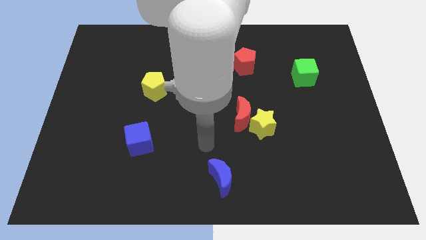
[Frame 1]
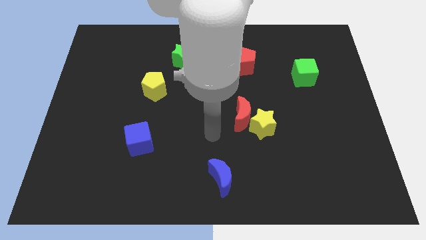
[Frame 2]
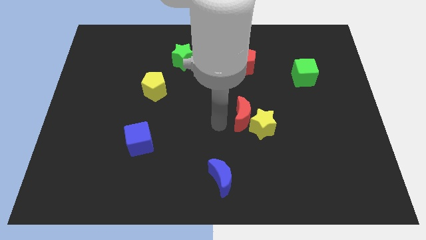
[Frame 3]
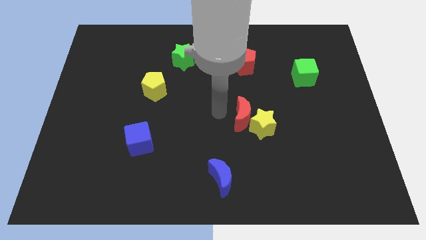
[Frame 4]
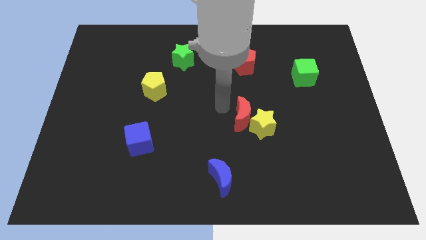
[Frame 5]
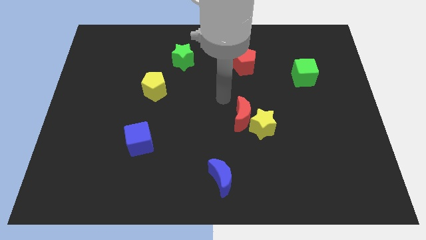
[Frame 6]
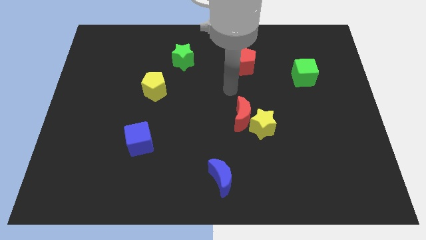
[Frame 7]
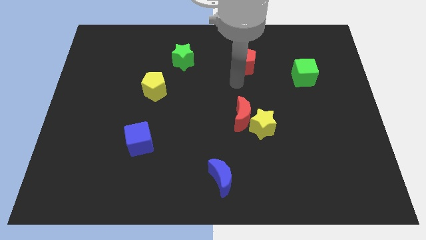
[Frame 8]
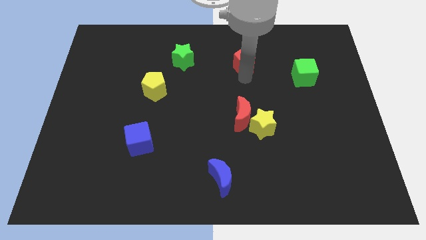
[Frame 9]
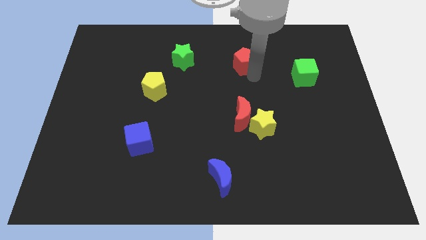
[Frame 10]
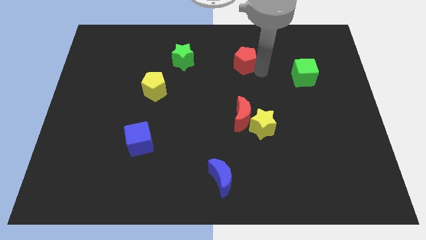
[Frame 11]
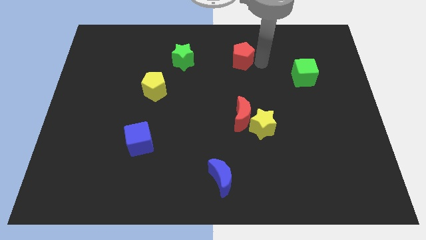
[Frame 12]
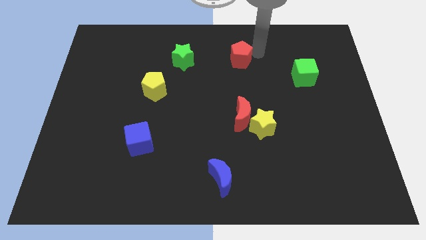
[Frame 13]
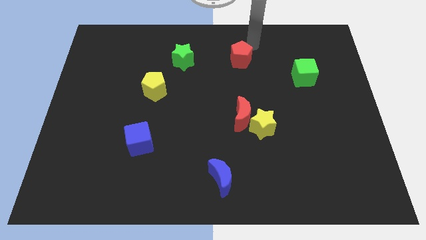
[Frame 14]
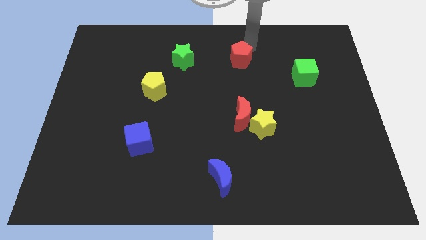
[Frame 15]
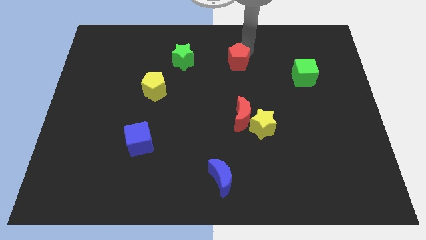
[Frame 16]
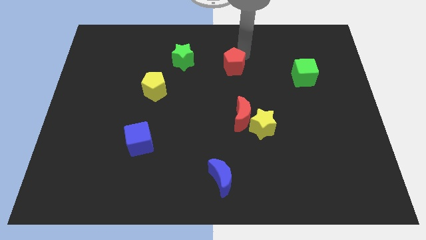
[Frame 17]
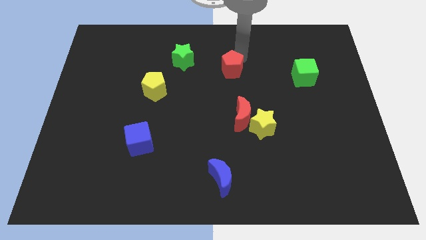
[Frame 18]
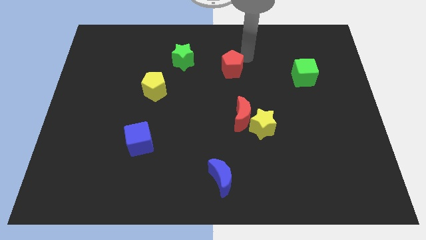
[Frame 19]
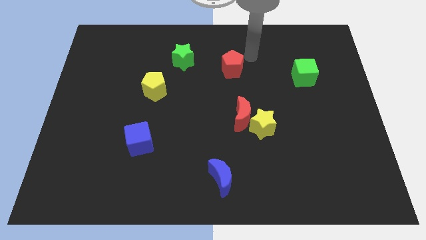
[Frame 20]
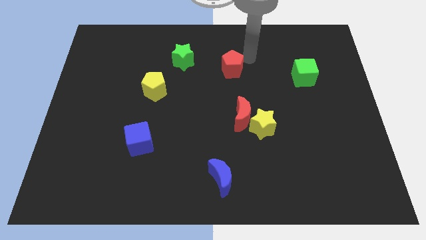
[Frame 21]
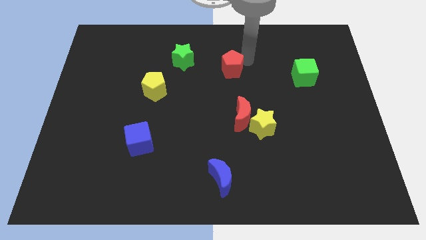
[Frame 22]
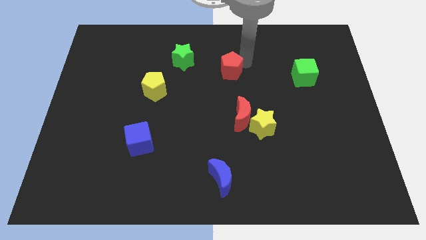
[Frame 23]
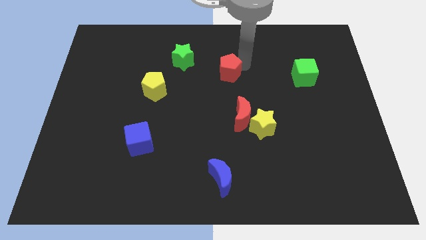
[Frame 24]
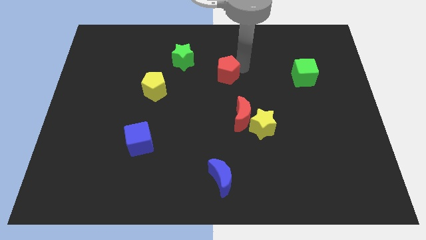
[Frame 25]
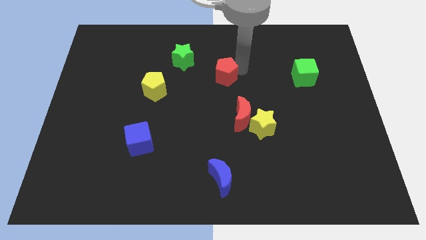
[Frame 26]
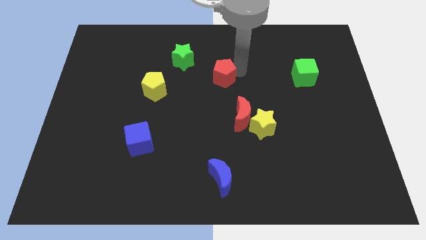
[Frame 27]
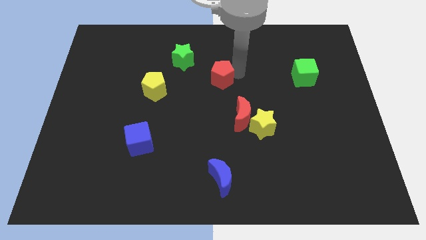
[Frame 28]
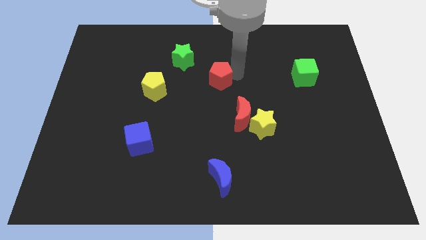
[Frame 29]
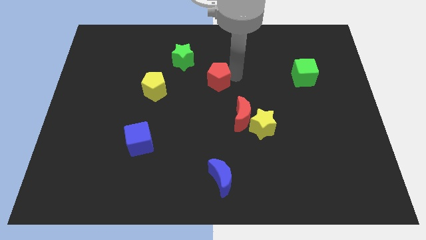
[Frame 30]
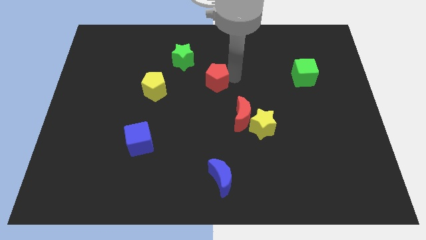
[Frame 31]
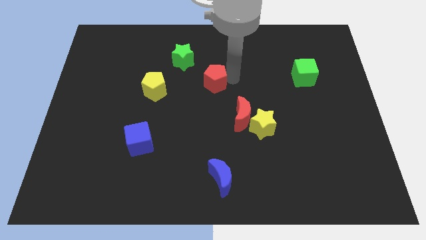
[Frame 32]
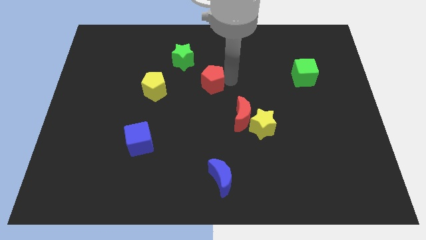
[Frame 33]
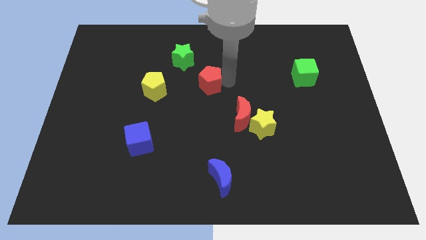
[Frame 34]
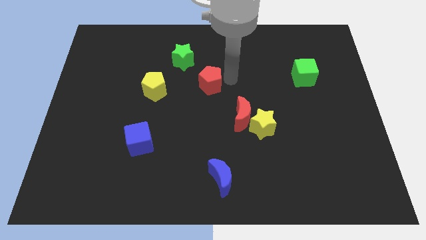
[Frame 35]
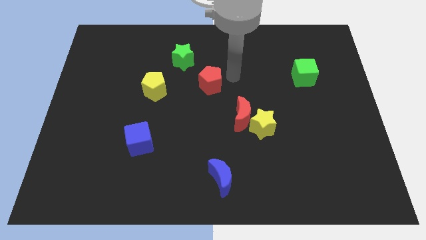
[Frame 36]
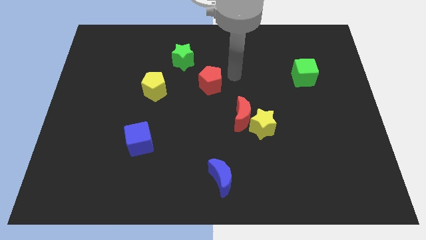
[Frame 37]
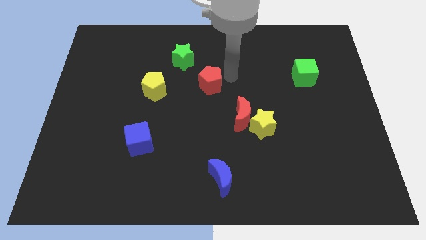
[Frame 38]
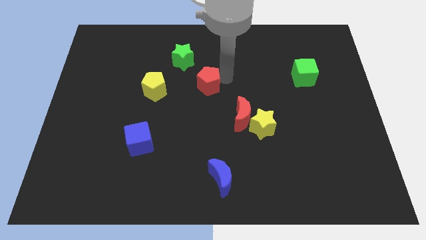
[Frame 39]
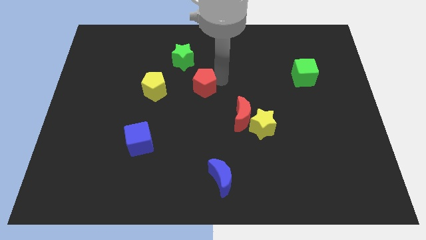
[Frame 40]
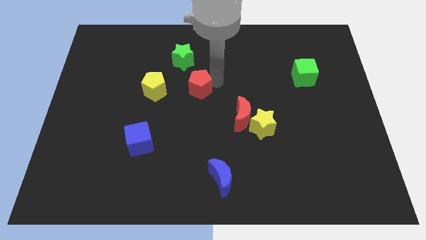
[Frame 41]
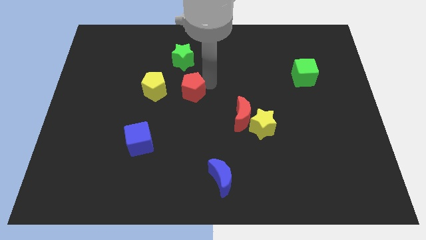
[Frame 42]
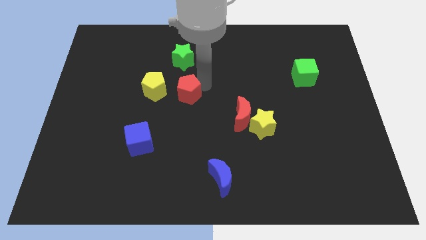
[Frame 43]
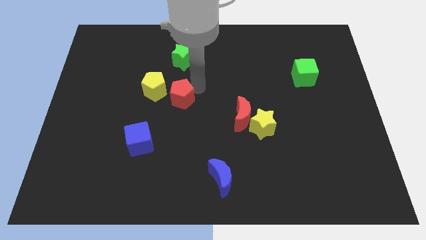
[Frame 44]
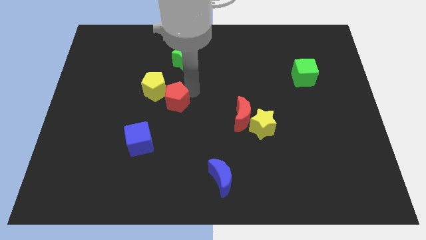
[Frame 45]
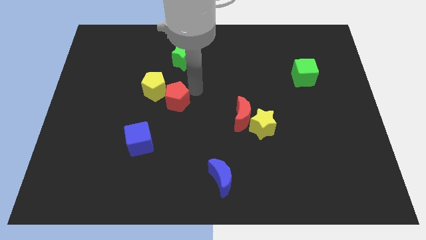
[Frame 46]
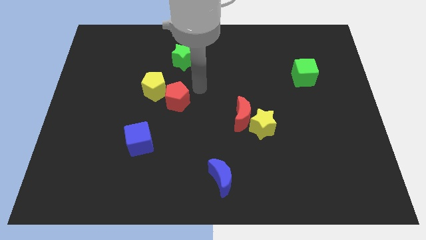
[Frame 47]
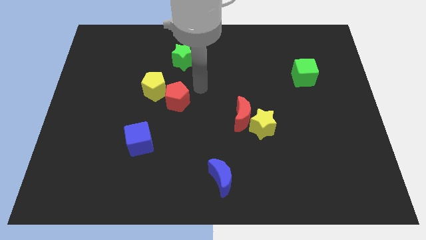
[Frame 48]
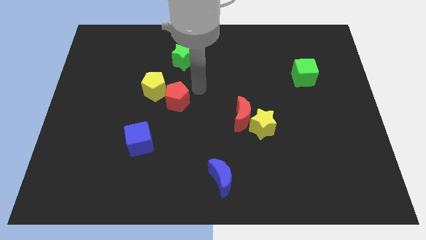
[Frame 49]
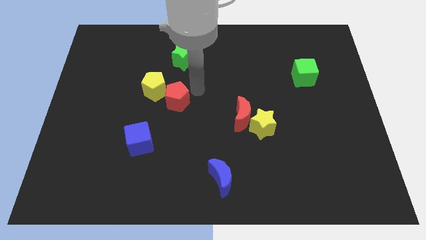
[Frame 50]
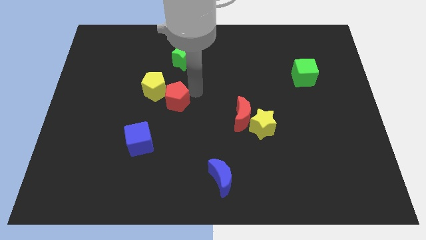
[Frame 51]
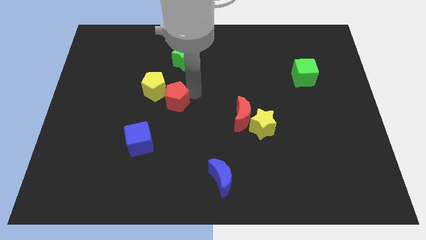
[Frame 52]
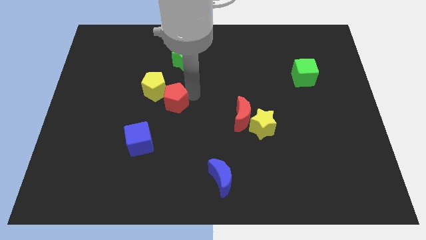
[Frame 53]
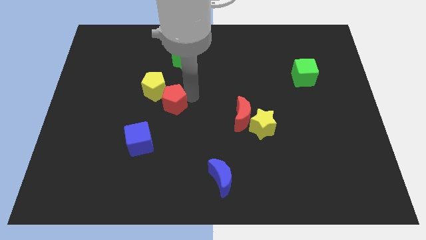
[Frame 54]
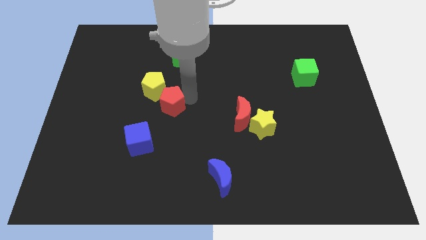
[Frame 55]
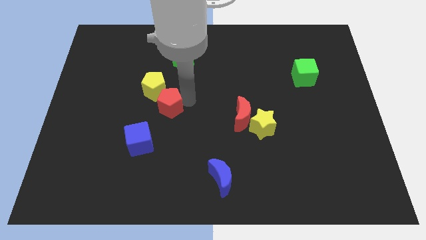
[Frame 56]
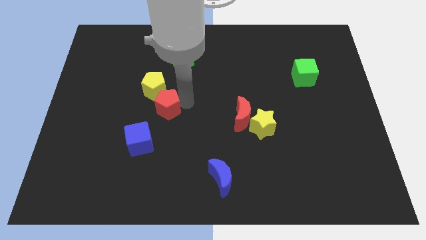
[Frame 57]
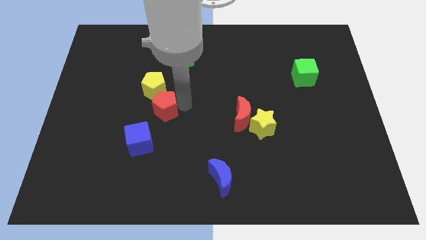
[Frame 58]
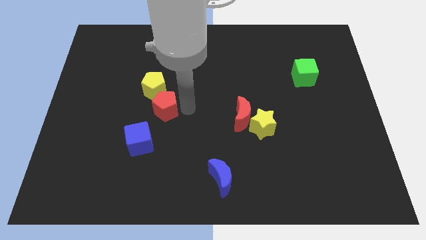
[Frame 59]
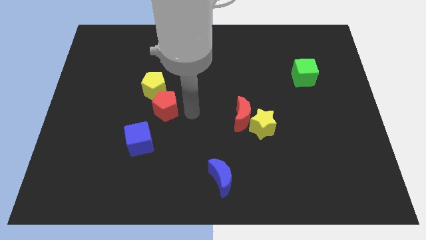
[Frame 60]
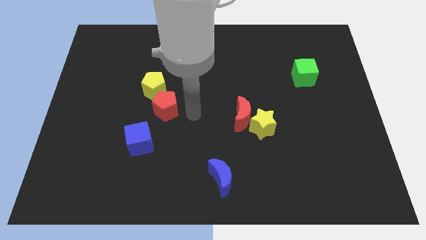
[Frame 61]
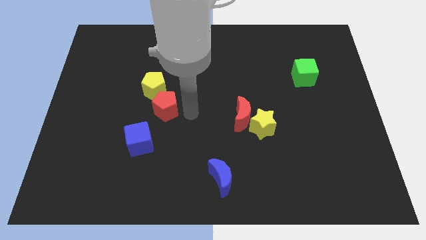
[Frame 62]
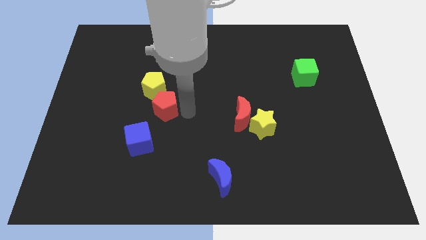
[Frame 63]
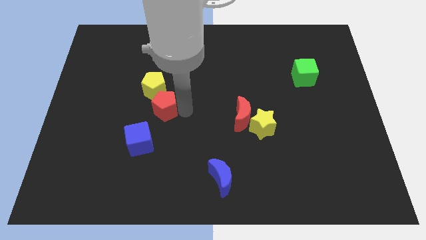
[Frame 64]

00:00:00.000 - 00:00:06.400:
move the red pentagon above the blue cube

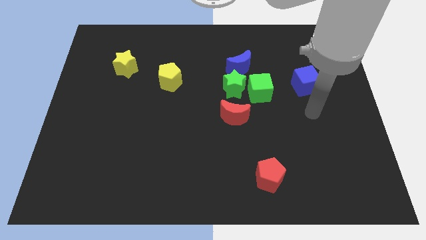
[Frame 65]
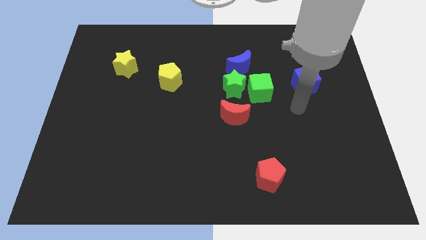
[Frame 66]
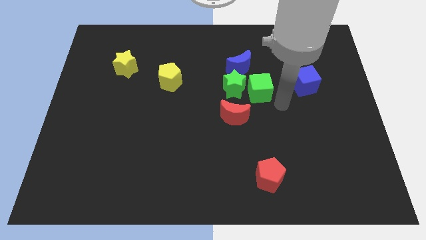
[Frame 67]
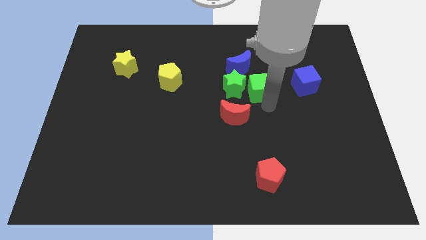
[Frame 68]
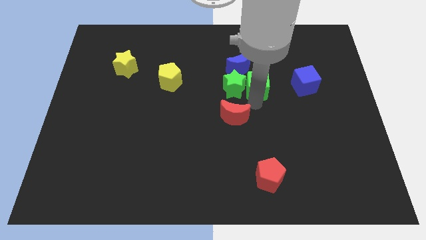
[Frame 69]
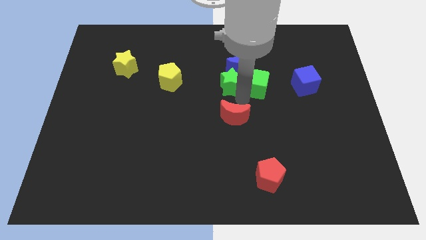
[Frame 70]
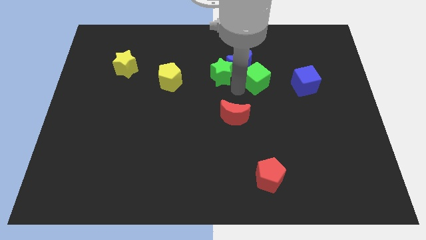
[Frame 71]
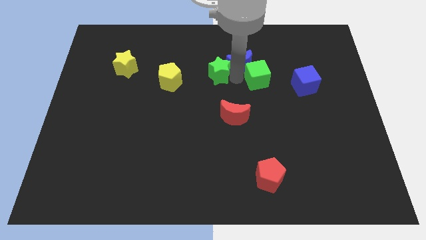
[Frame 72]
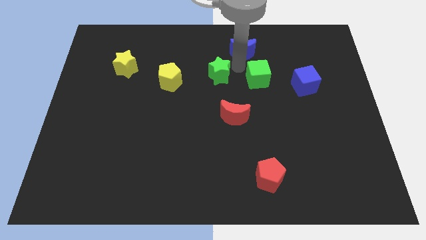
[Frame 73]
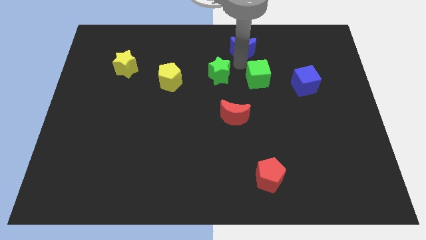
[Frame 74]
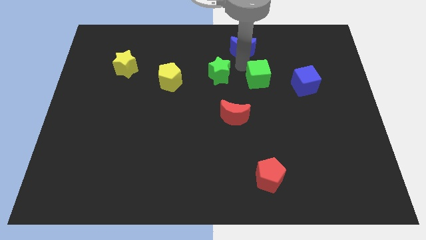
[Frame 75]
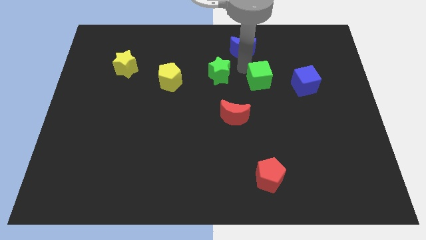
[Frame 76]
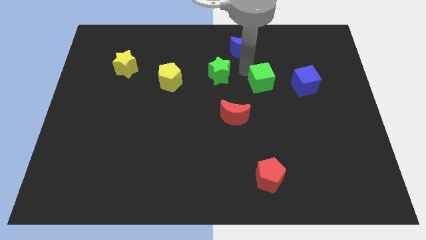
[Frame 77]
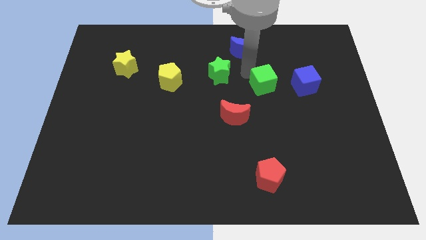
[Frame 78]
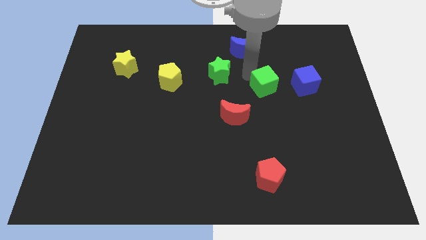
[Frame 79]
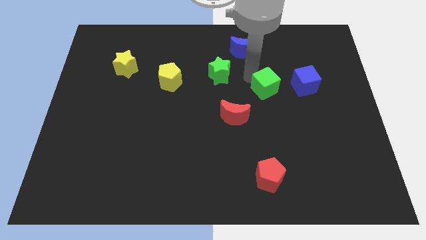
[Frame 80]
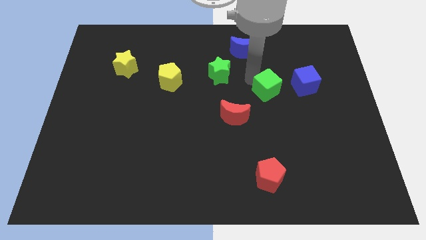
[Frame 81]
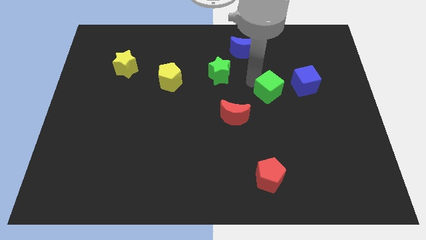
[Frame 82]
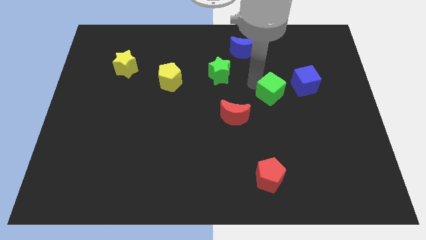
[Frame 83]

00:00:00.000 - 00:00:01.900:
move the green cube to the bottom left of the blue cube
